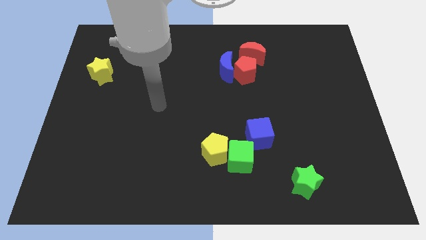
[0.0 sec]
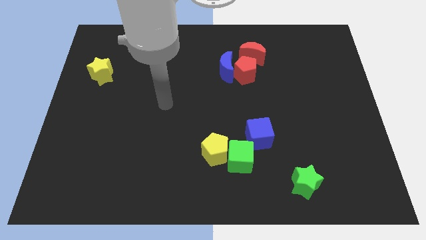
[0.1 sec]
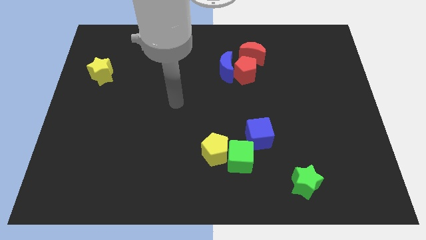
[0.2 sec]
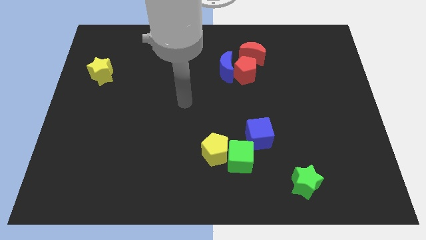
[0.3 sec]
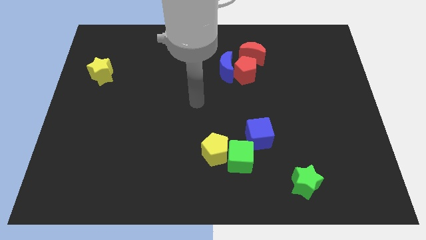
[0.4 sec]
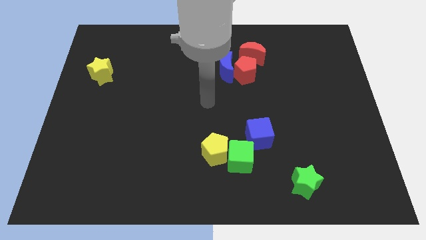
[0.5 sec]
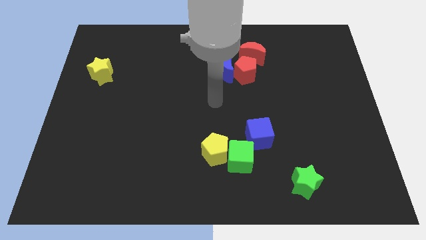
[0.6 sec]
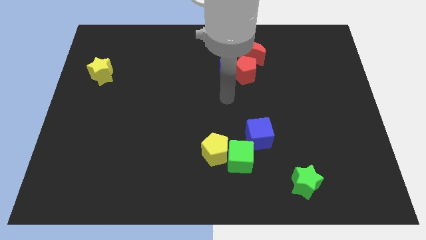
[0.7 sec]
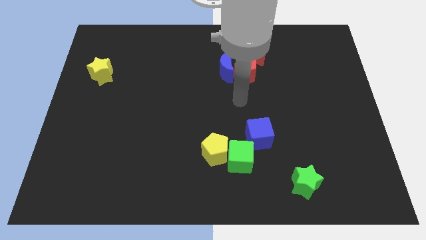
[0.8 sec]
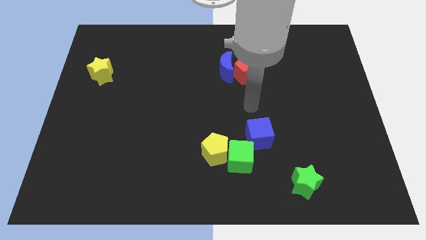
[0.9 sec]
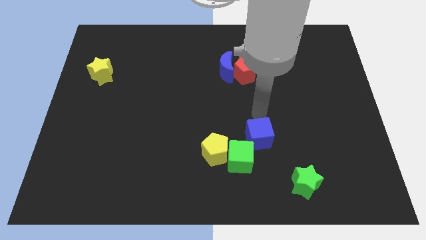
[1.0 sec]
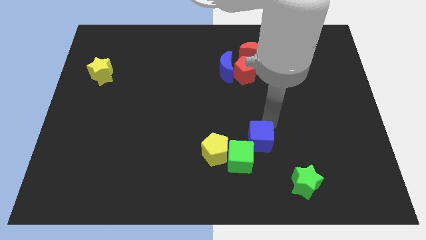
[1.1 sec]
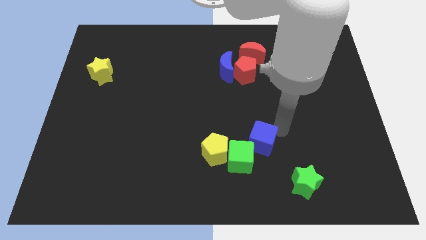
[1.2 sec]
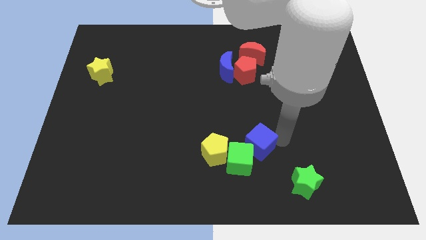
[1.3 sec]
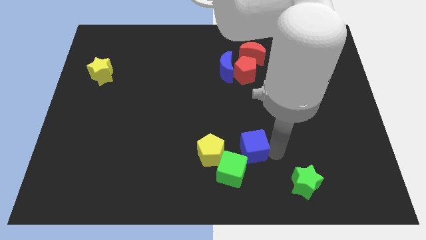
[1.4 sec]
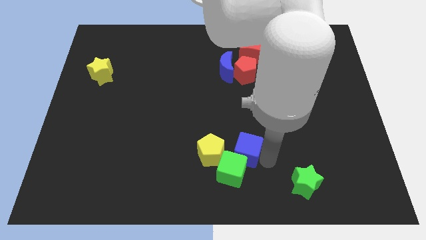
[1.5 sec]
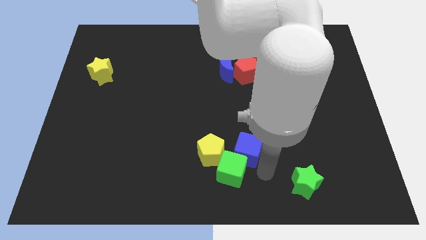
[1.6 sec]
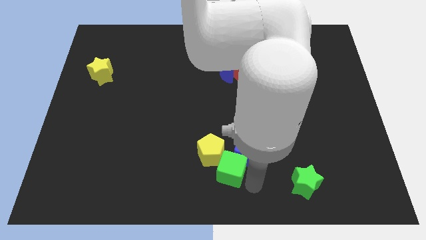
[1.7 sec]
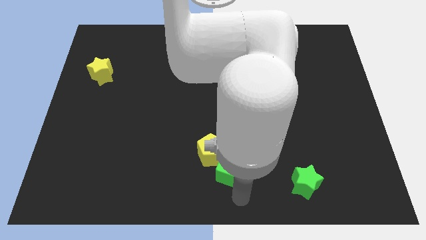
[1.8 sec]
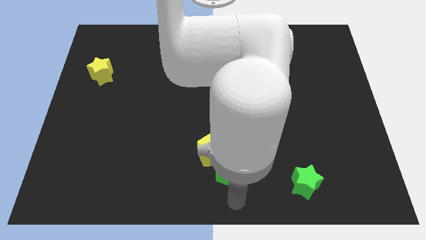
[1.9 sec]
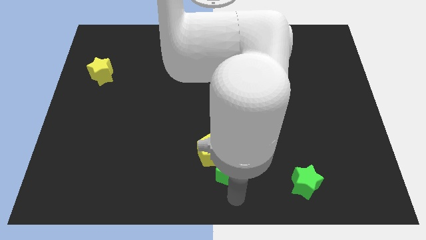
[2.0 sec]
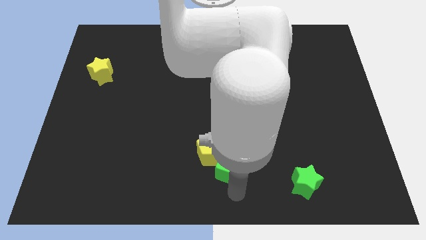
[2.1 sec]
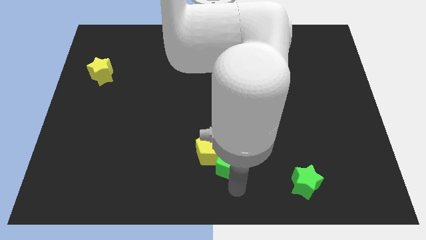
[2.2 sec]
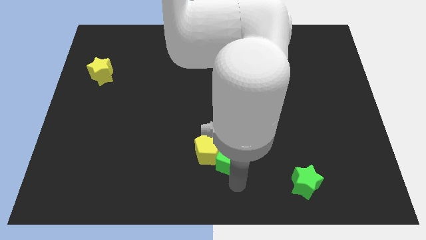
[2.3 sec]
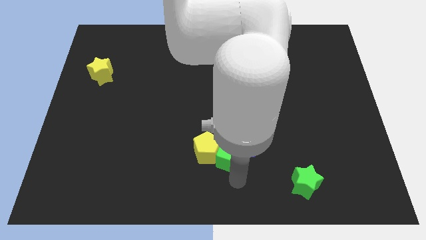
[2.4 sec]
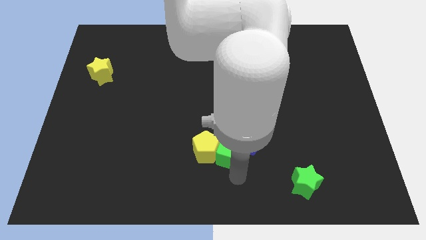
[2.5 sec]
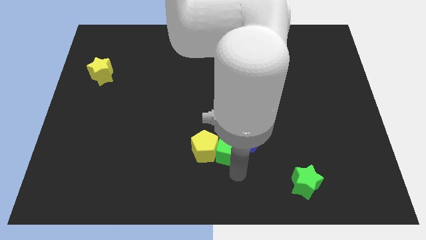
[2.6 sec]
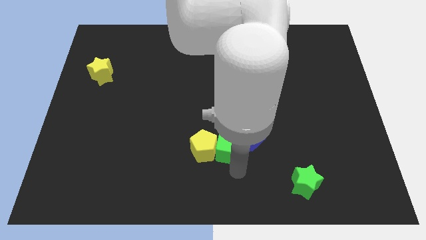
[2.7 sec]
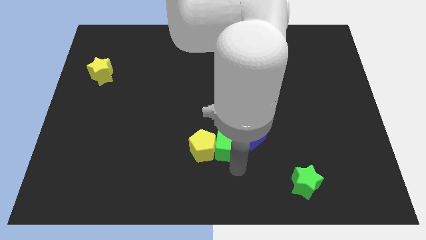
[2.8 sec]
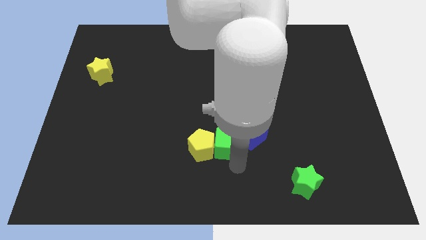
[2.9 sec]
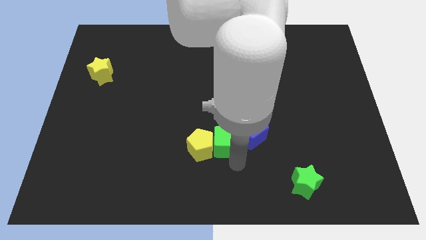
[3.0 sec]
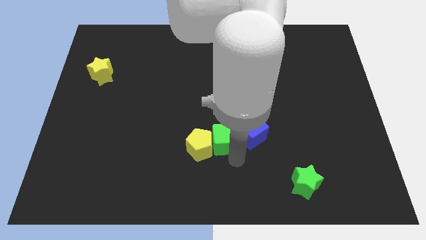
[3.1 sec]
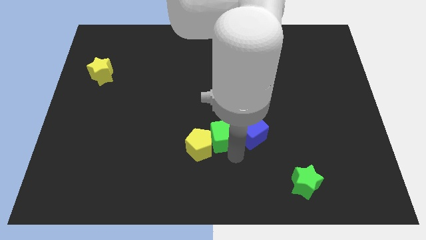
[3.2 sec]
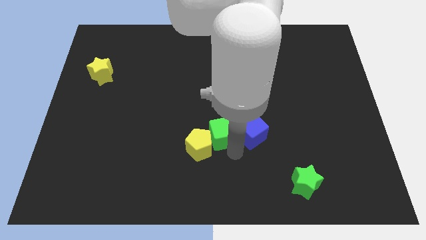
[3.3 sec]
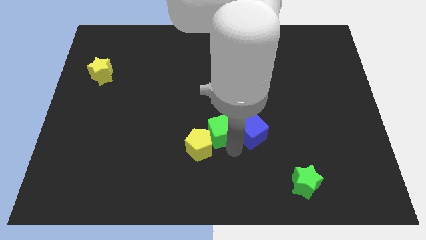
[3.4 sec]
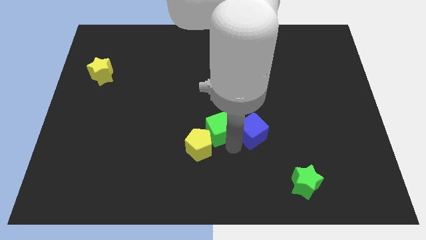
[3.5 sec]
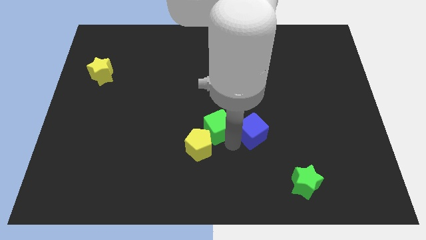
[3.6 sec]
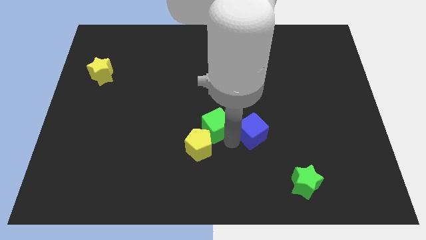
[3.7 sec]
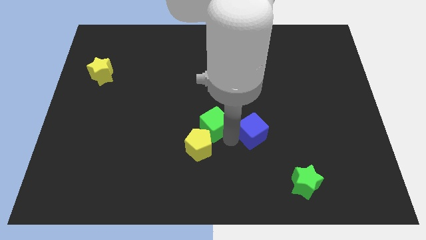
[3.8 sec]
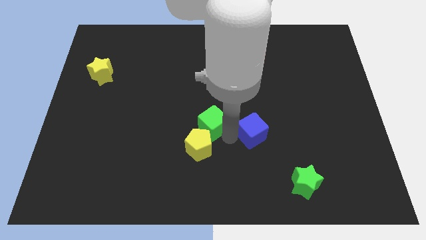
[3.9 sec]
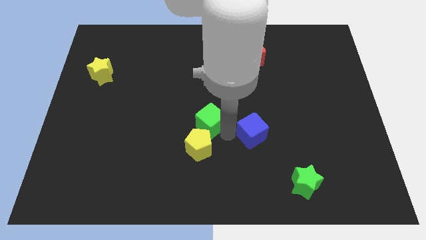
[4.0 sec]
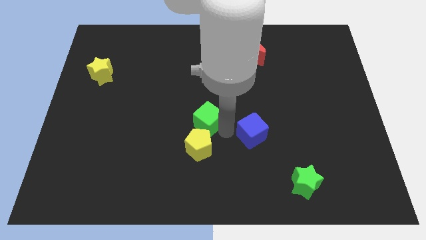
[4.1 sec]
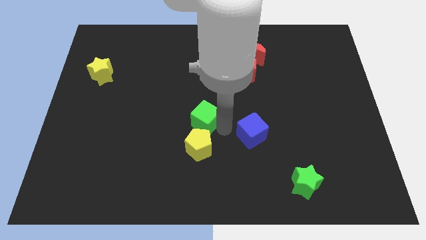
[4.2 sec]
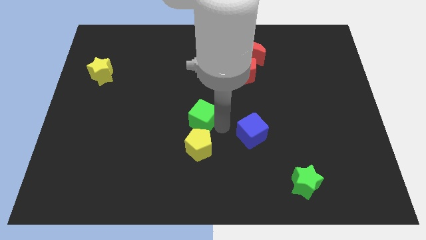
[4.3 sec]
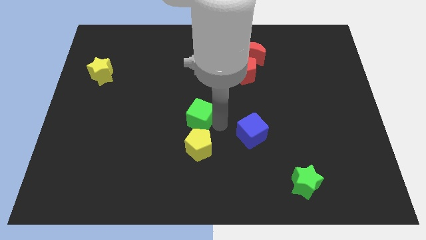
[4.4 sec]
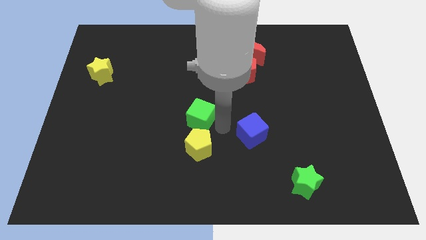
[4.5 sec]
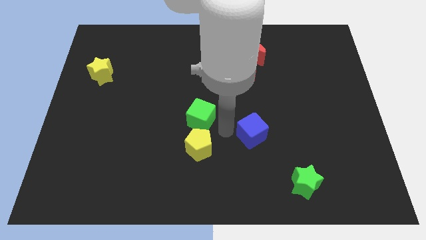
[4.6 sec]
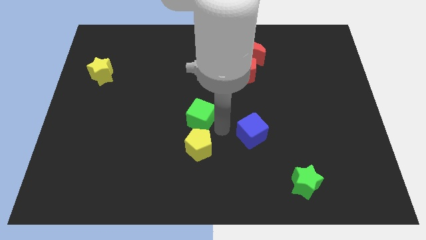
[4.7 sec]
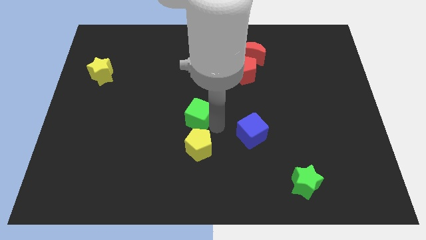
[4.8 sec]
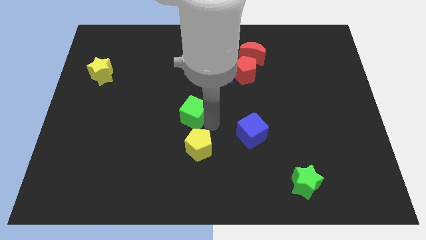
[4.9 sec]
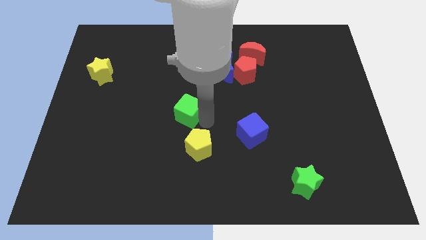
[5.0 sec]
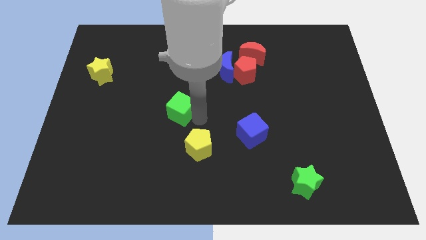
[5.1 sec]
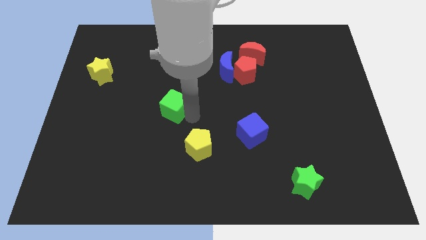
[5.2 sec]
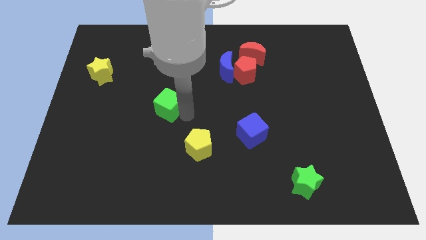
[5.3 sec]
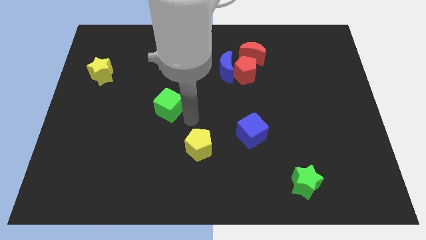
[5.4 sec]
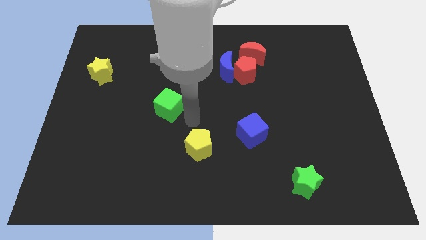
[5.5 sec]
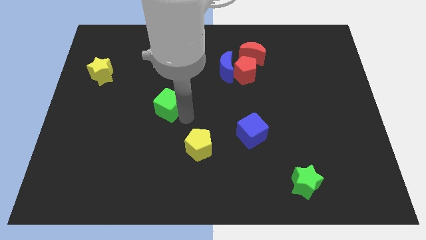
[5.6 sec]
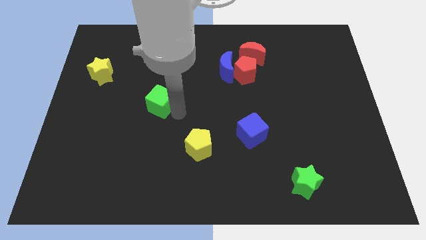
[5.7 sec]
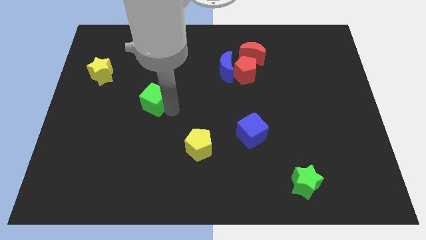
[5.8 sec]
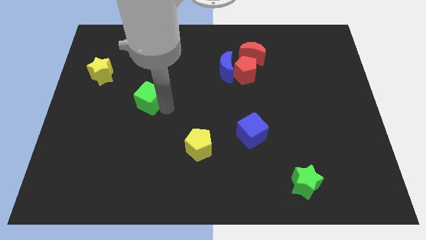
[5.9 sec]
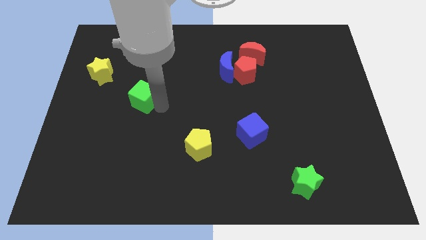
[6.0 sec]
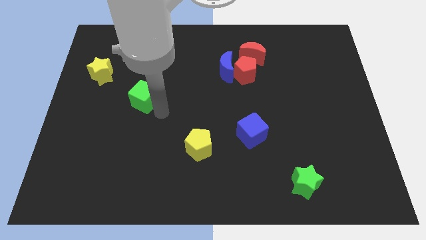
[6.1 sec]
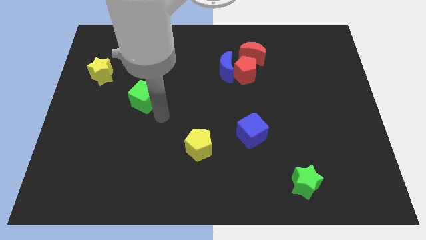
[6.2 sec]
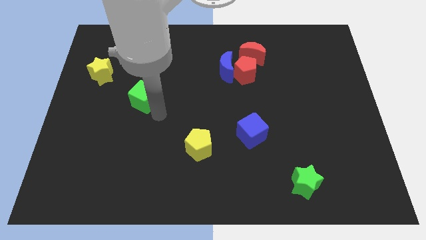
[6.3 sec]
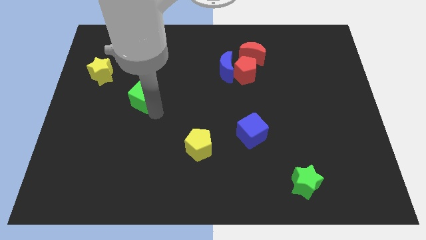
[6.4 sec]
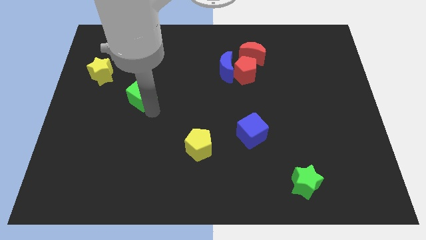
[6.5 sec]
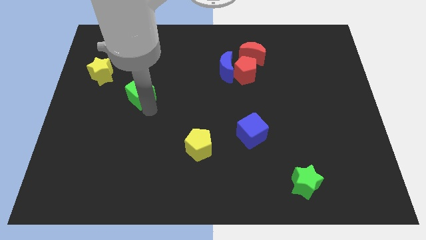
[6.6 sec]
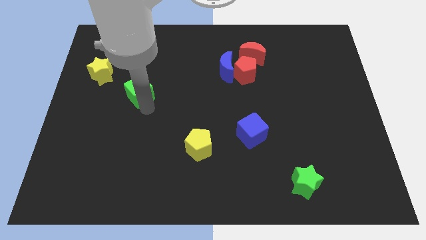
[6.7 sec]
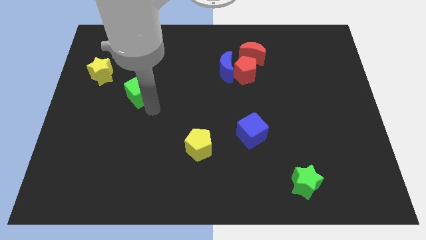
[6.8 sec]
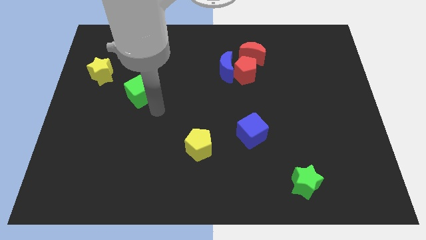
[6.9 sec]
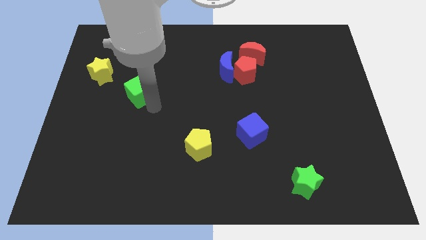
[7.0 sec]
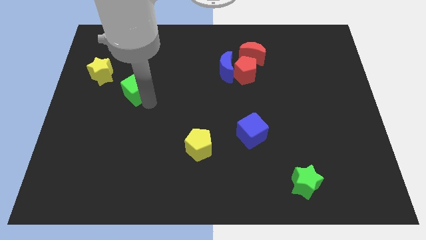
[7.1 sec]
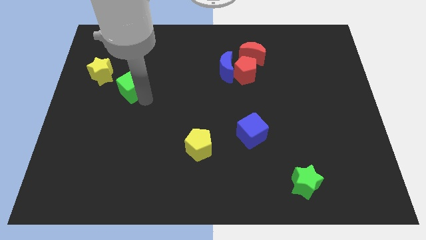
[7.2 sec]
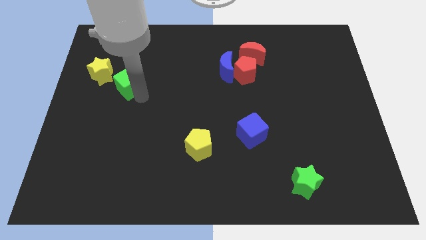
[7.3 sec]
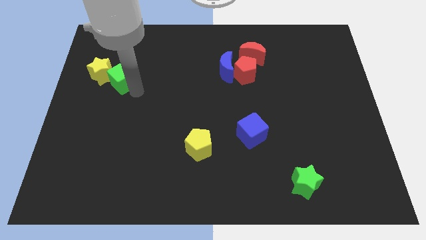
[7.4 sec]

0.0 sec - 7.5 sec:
slide the green cube towards the yellow star
